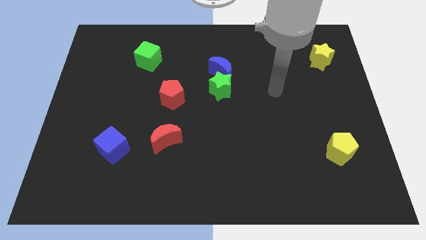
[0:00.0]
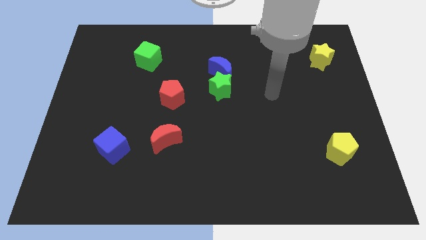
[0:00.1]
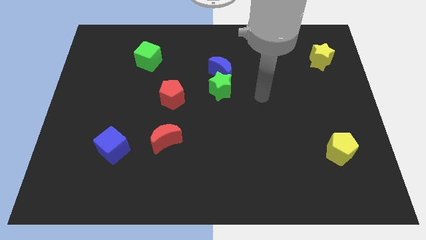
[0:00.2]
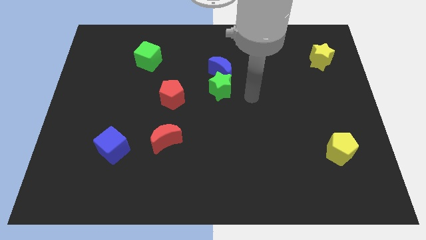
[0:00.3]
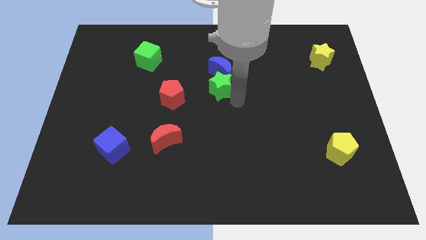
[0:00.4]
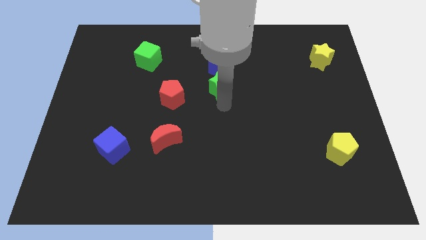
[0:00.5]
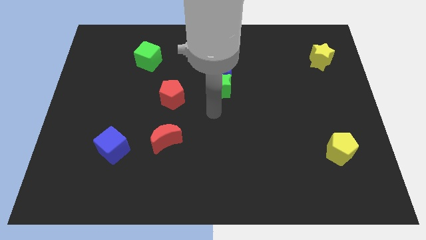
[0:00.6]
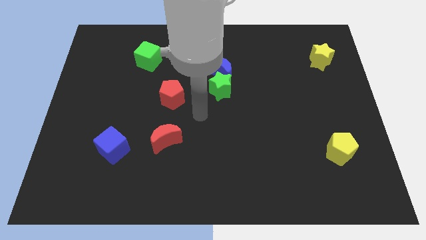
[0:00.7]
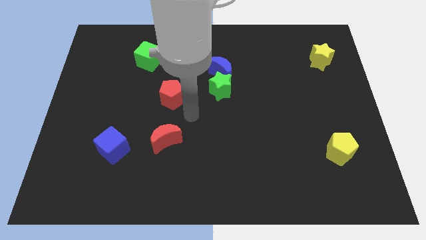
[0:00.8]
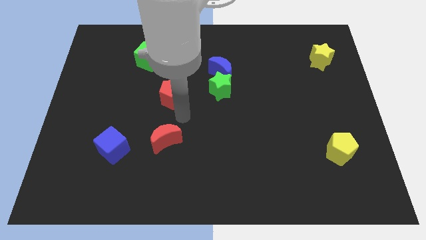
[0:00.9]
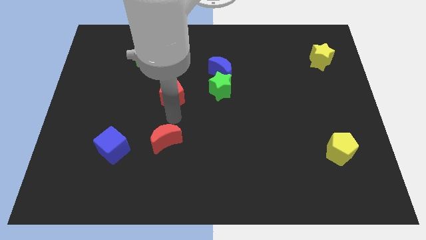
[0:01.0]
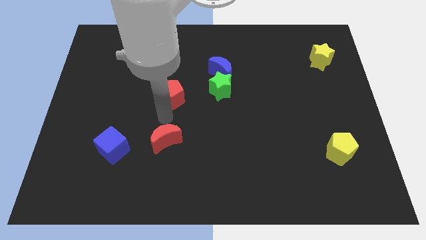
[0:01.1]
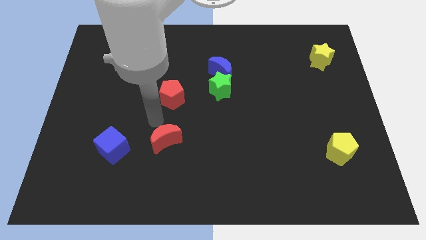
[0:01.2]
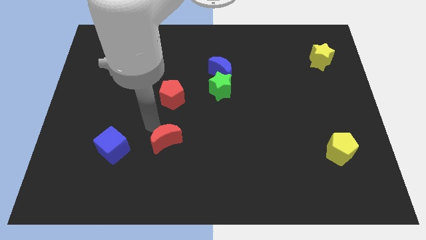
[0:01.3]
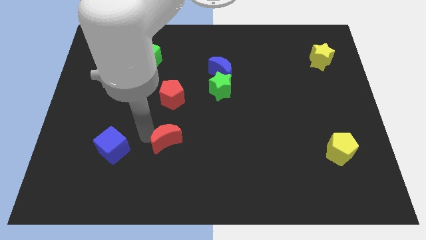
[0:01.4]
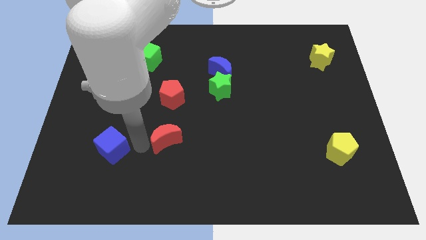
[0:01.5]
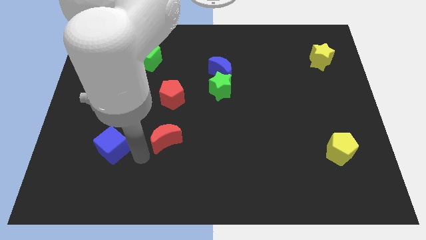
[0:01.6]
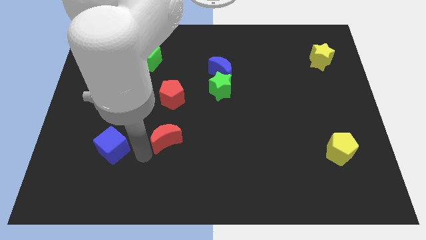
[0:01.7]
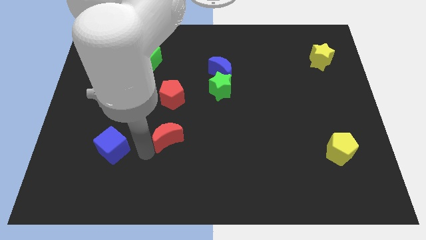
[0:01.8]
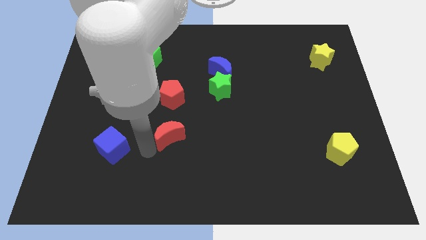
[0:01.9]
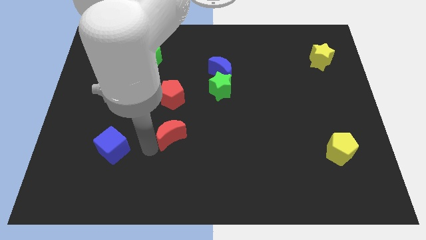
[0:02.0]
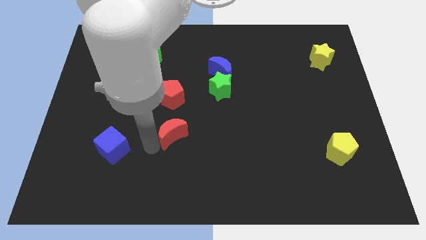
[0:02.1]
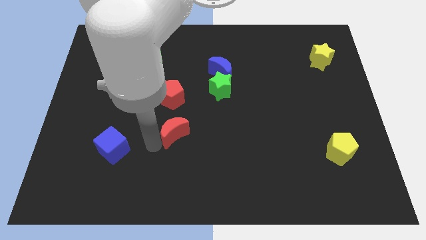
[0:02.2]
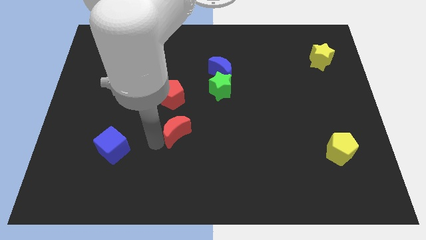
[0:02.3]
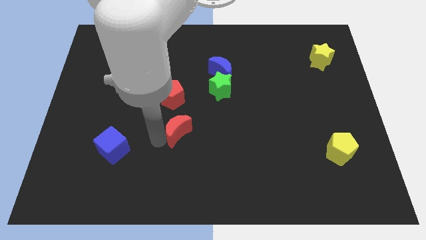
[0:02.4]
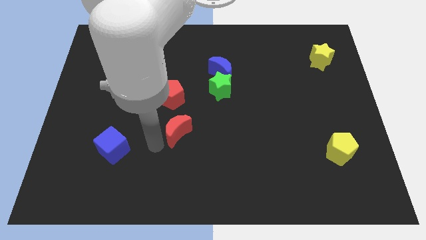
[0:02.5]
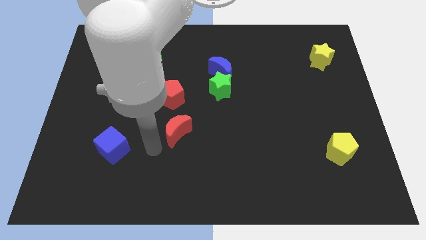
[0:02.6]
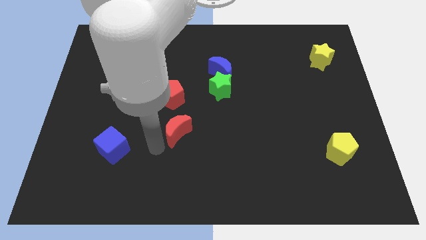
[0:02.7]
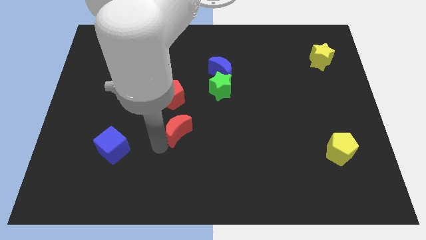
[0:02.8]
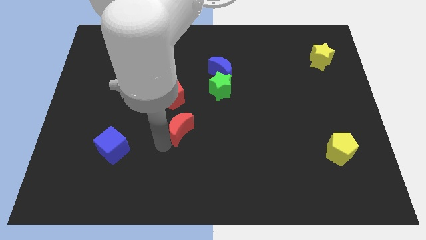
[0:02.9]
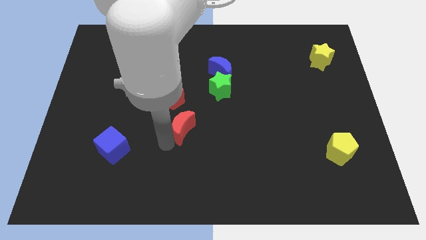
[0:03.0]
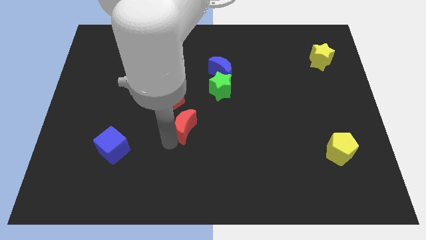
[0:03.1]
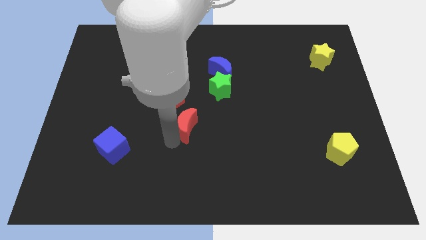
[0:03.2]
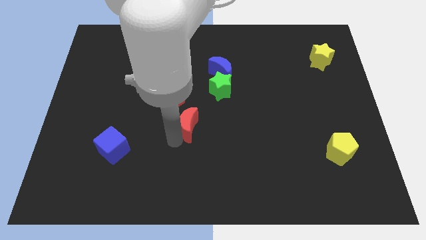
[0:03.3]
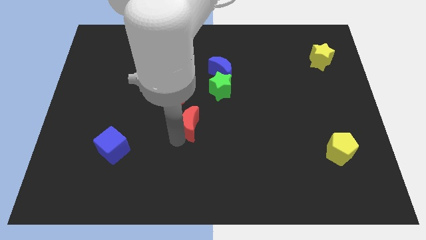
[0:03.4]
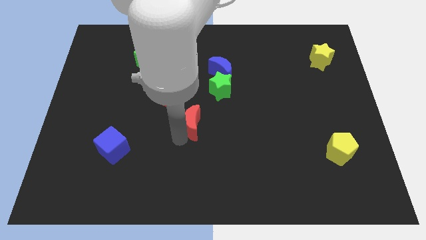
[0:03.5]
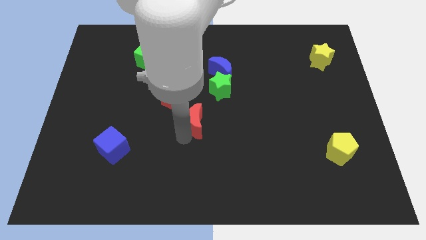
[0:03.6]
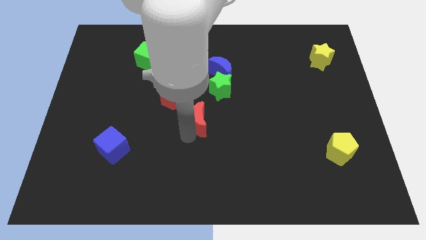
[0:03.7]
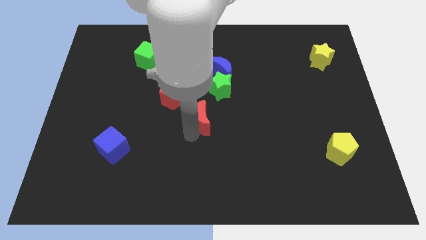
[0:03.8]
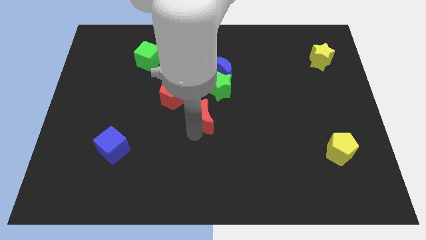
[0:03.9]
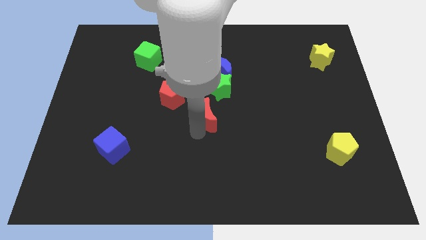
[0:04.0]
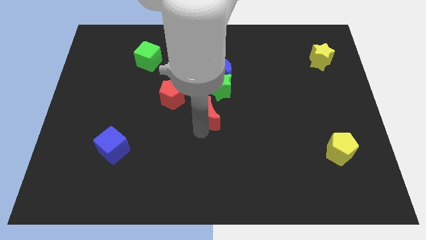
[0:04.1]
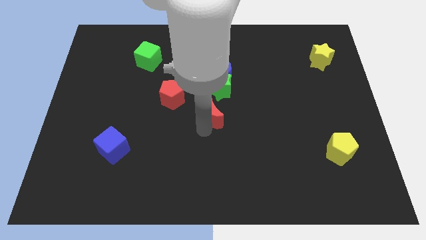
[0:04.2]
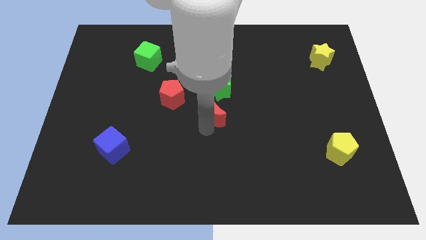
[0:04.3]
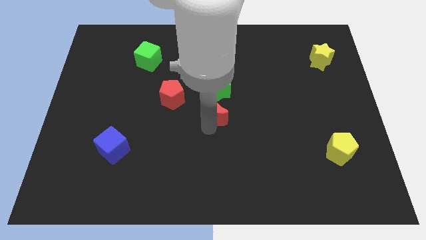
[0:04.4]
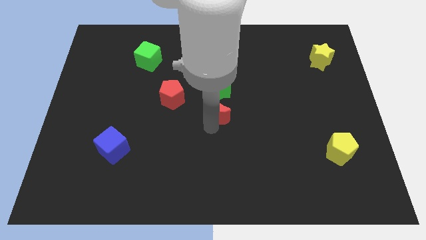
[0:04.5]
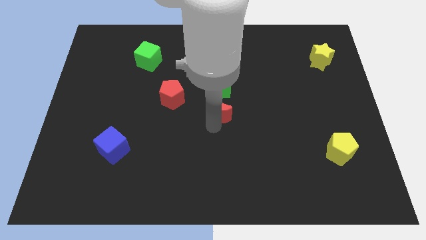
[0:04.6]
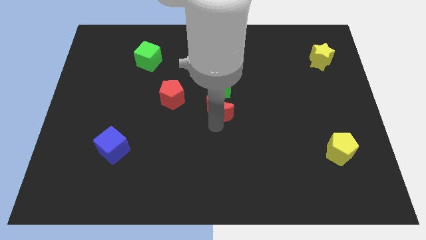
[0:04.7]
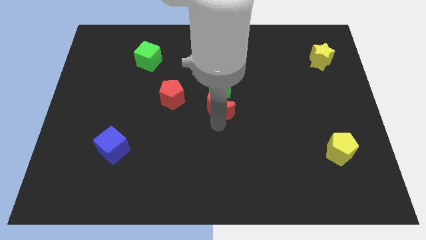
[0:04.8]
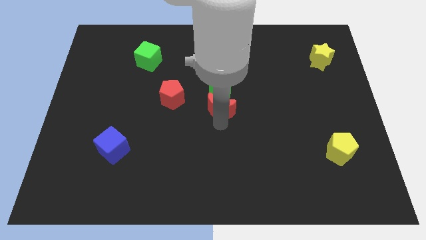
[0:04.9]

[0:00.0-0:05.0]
put the red moon close to the green star

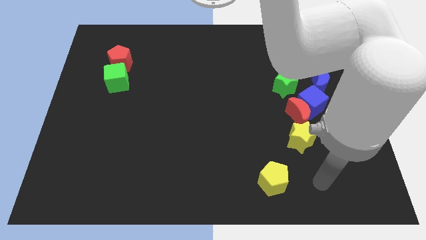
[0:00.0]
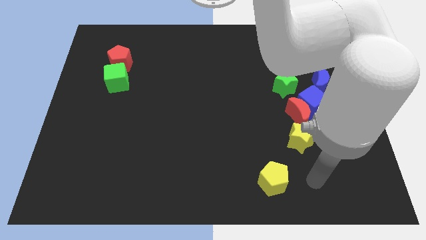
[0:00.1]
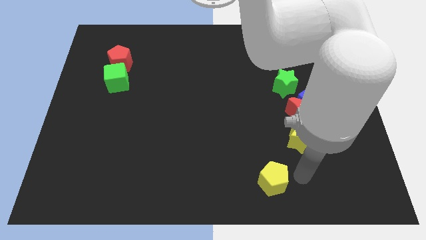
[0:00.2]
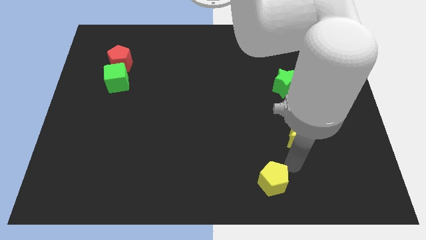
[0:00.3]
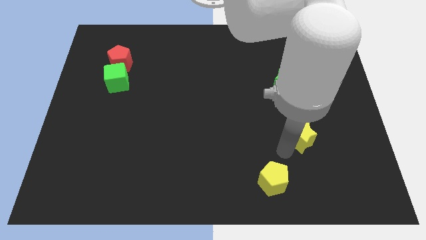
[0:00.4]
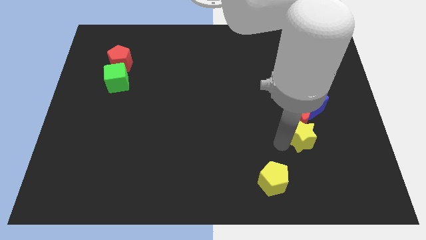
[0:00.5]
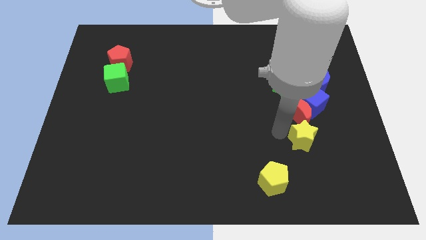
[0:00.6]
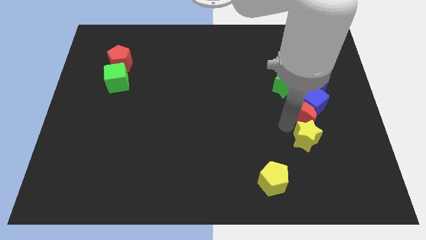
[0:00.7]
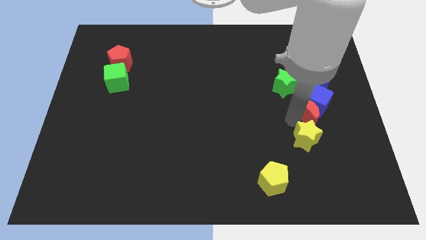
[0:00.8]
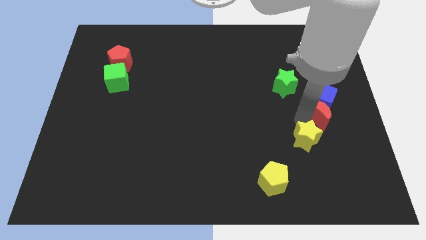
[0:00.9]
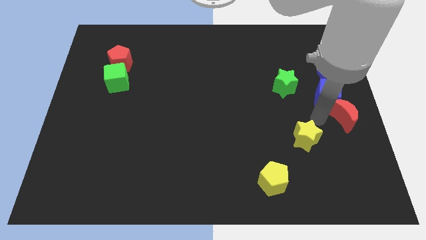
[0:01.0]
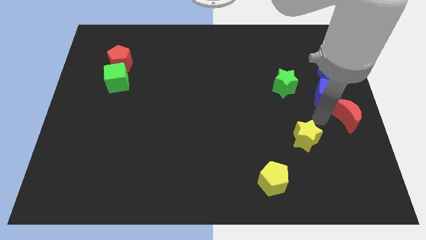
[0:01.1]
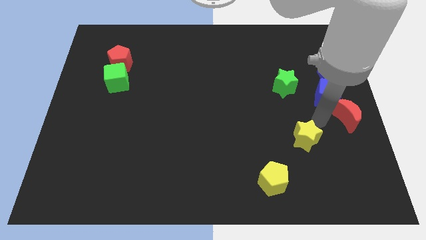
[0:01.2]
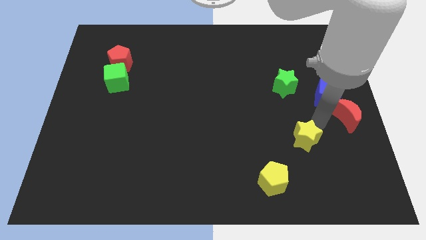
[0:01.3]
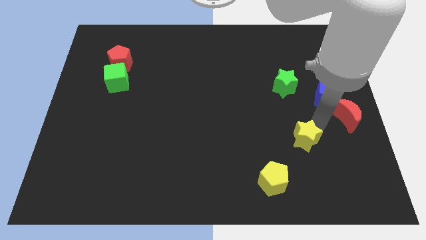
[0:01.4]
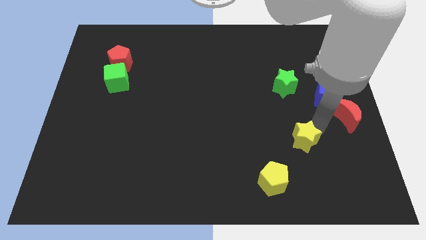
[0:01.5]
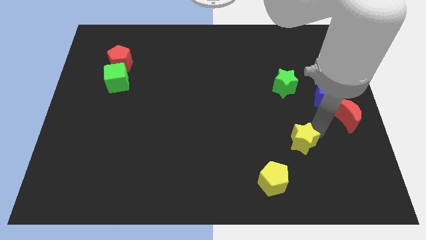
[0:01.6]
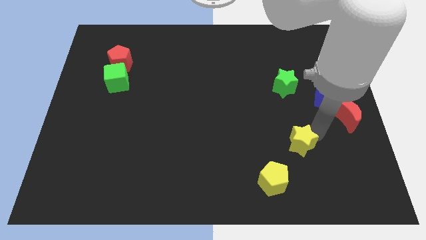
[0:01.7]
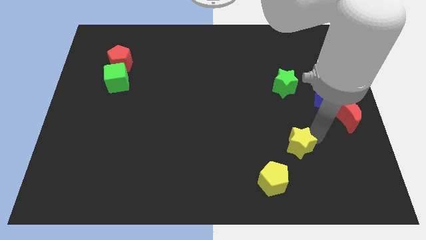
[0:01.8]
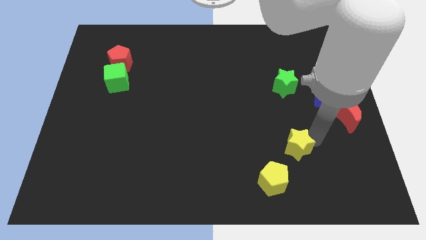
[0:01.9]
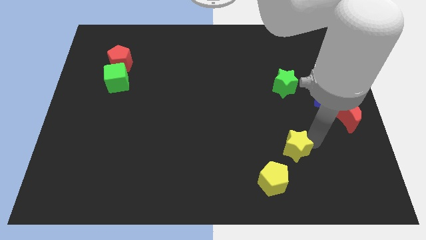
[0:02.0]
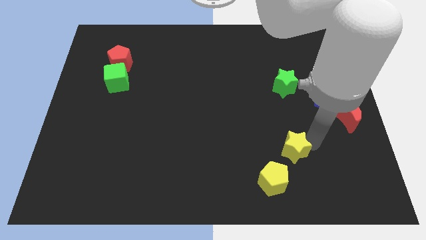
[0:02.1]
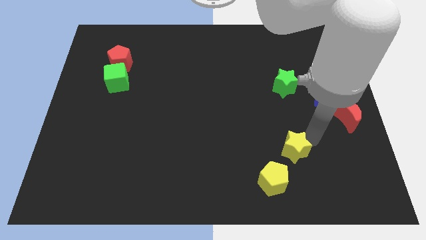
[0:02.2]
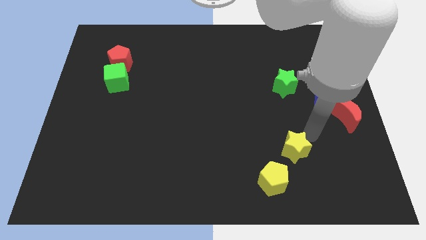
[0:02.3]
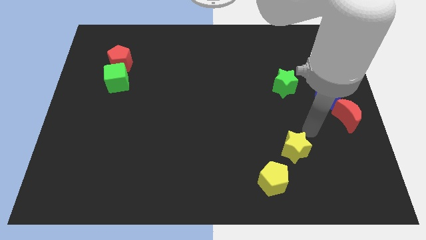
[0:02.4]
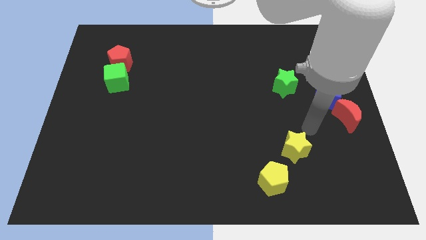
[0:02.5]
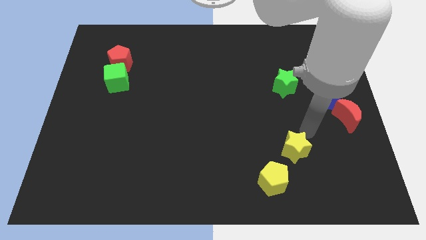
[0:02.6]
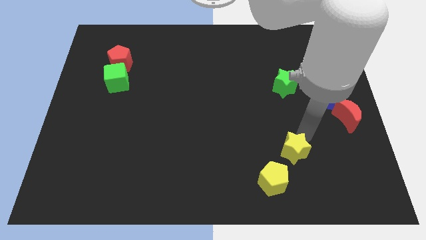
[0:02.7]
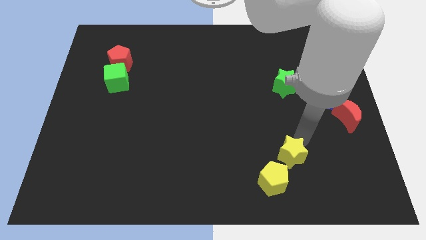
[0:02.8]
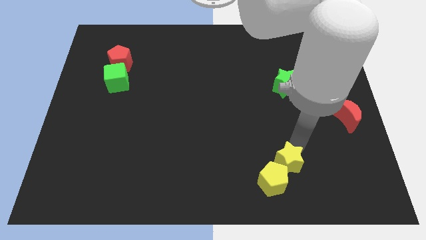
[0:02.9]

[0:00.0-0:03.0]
put the yellow star towards the yellow pentagon
